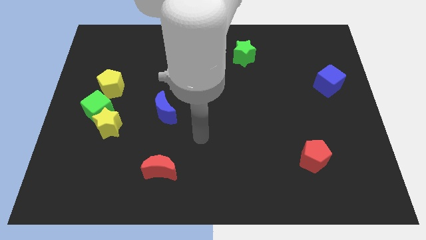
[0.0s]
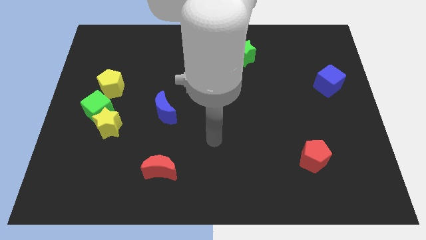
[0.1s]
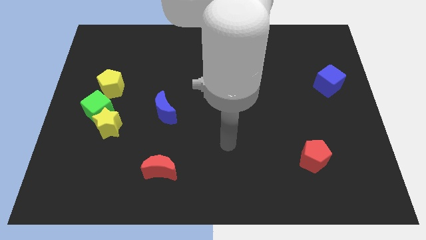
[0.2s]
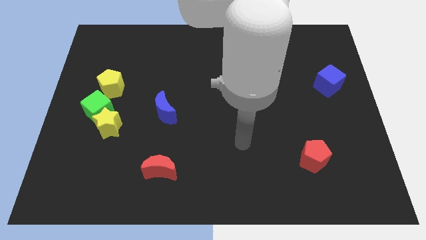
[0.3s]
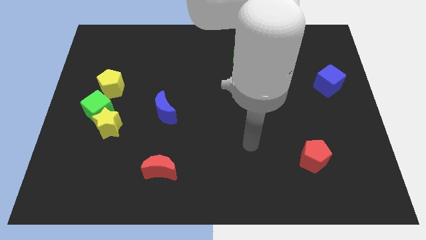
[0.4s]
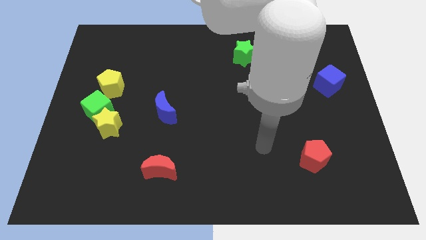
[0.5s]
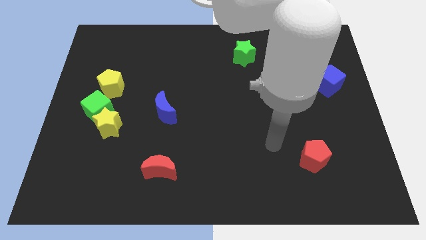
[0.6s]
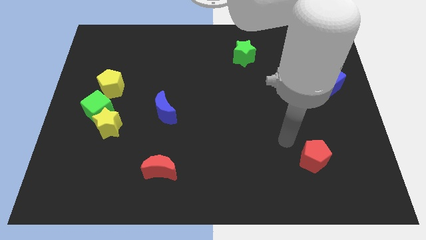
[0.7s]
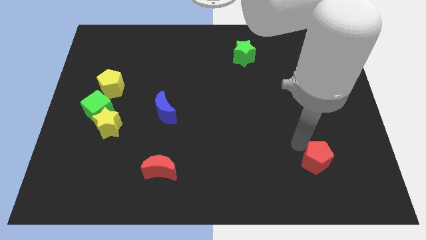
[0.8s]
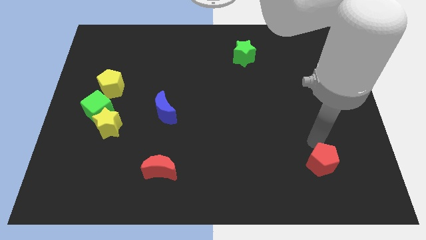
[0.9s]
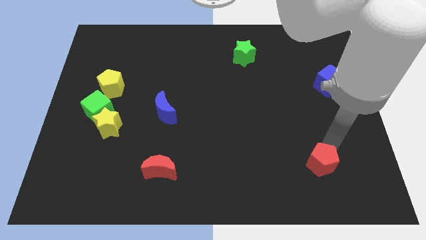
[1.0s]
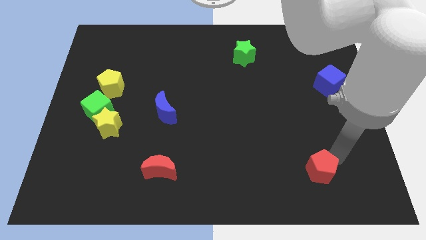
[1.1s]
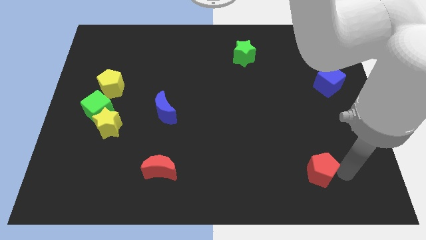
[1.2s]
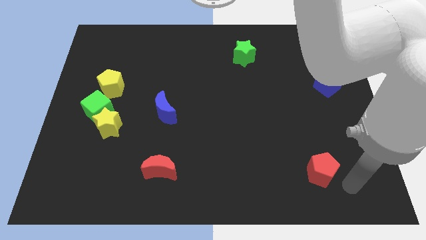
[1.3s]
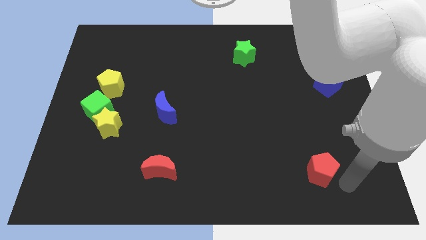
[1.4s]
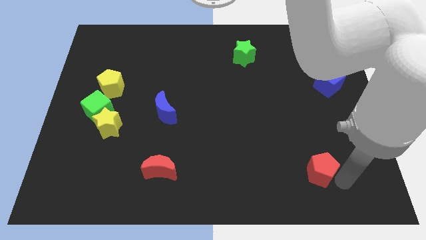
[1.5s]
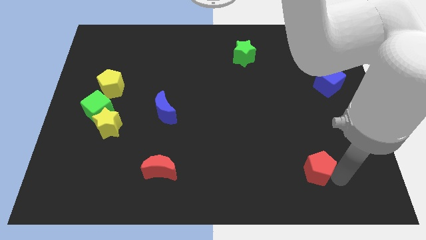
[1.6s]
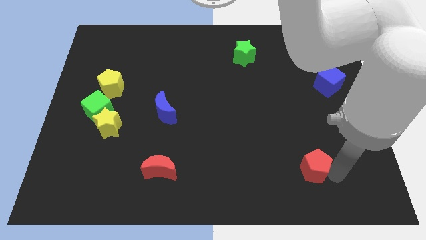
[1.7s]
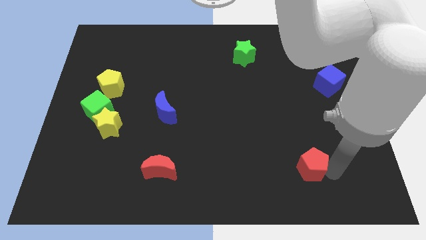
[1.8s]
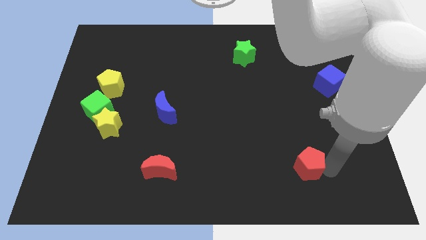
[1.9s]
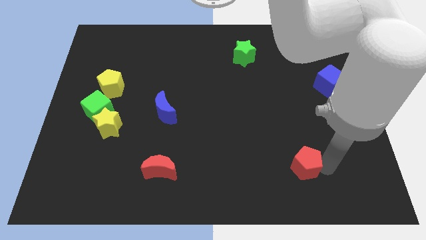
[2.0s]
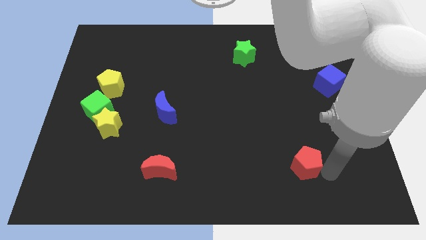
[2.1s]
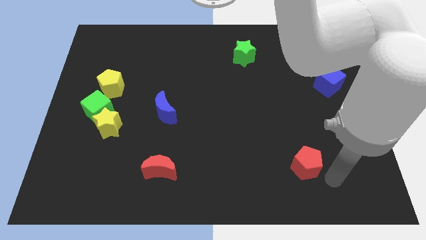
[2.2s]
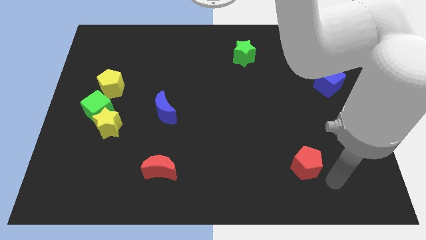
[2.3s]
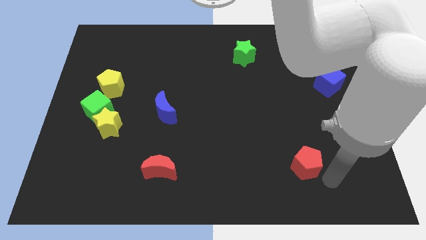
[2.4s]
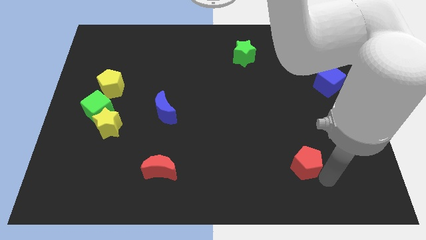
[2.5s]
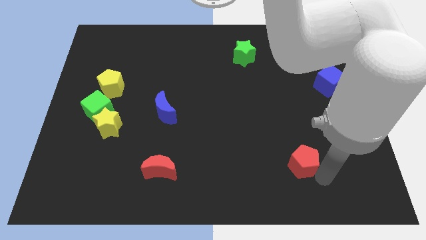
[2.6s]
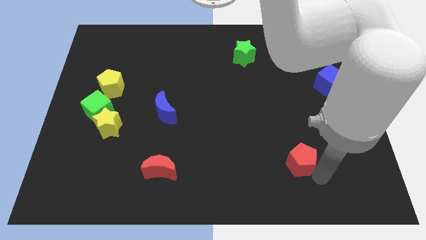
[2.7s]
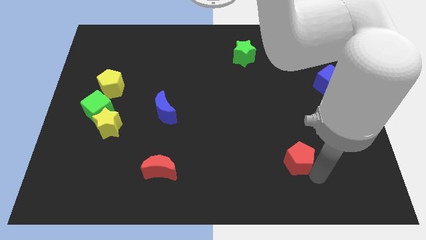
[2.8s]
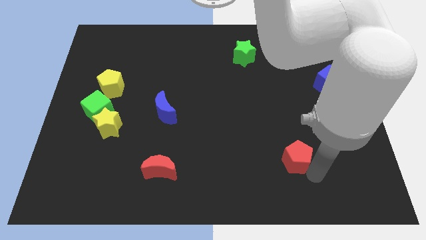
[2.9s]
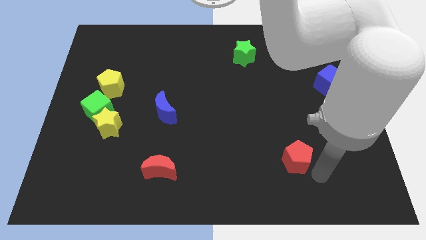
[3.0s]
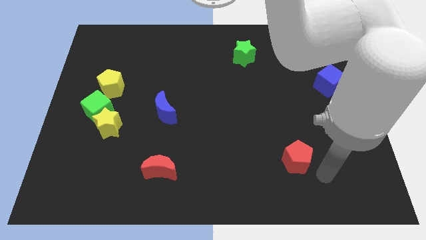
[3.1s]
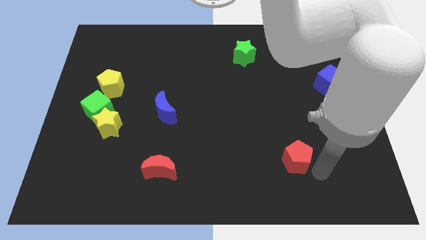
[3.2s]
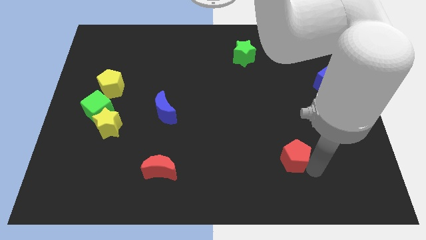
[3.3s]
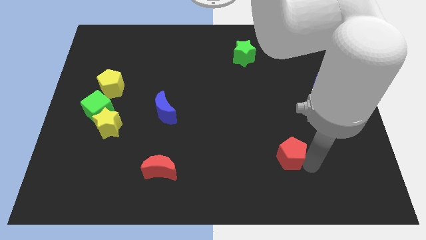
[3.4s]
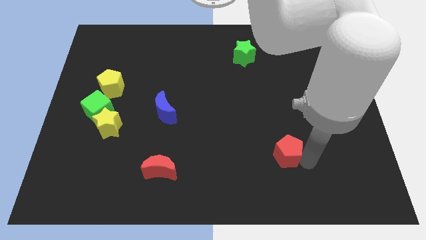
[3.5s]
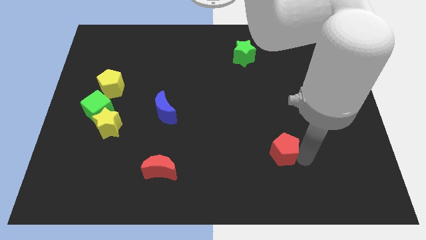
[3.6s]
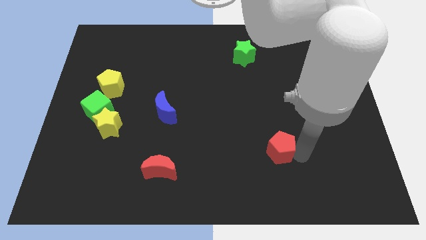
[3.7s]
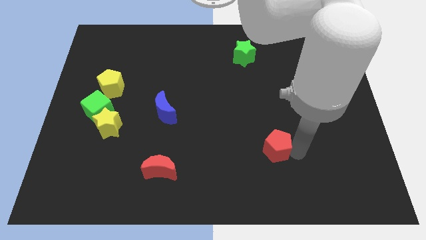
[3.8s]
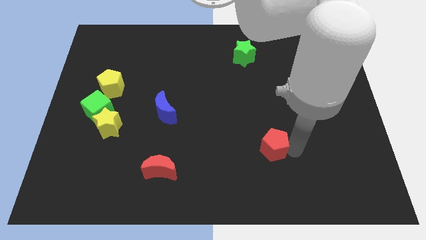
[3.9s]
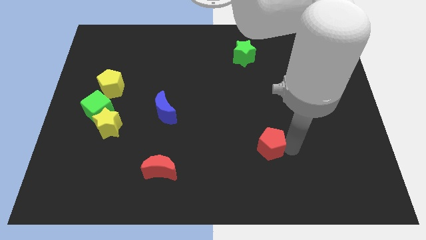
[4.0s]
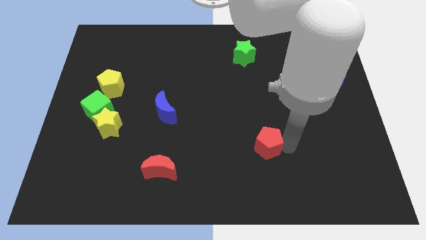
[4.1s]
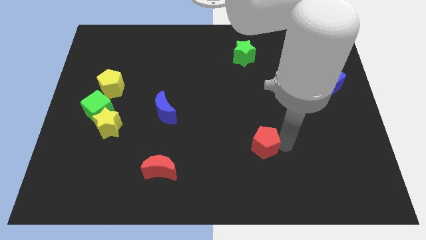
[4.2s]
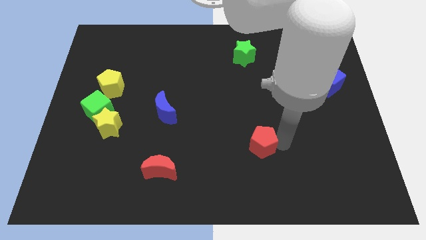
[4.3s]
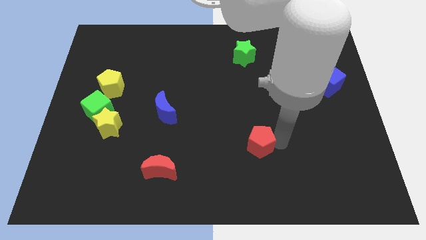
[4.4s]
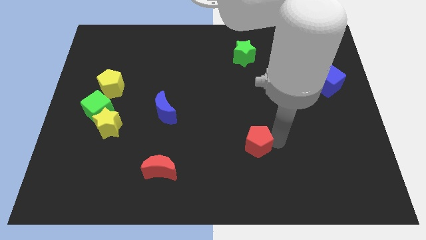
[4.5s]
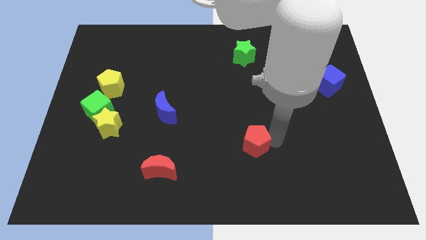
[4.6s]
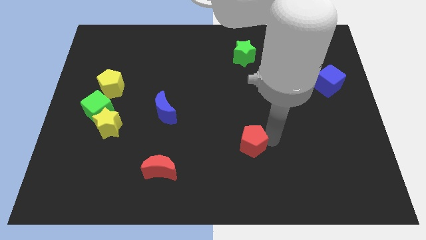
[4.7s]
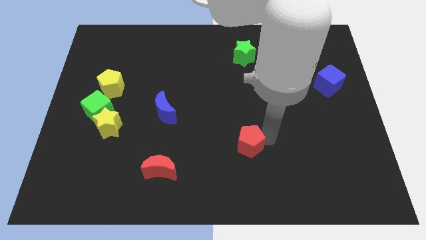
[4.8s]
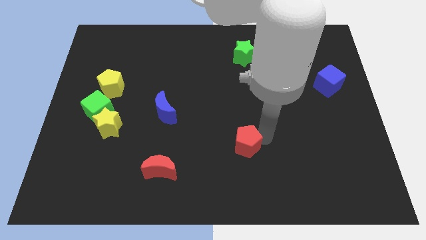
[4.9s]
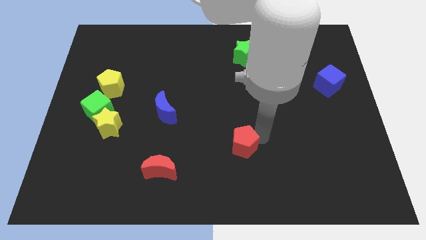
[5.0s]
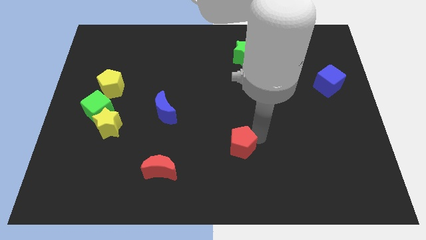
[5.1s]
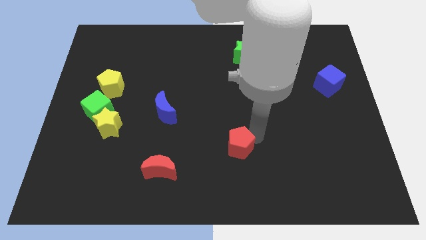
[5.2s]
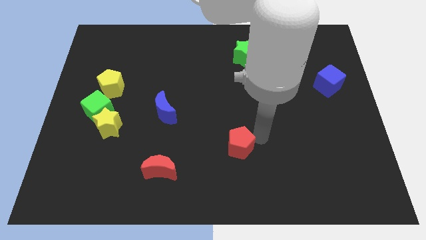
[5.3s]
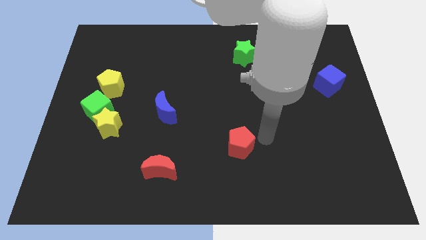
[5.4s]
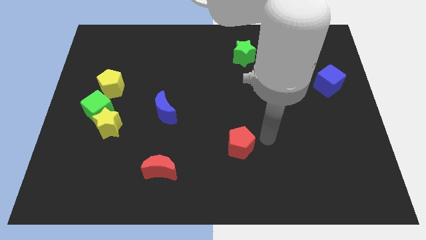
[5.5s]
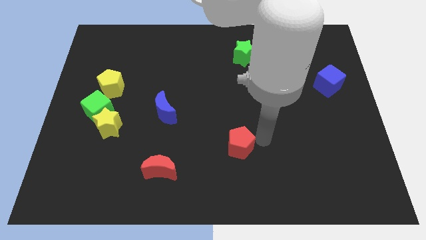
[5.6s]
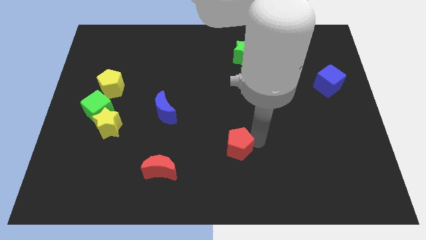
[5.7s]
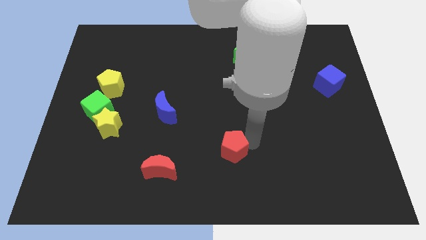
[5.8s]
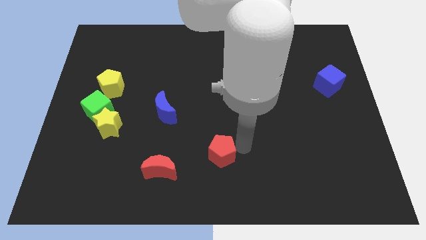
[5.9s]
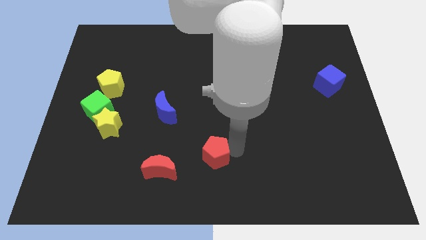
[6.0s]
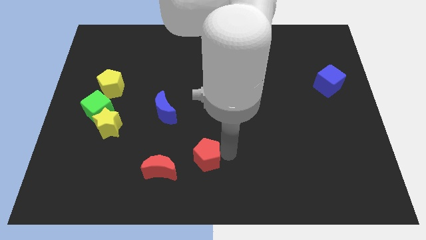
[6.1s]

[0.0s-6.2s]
slide the red pentagon to the top right side of the red moon

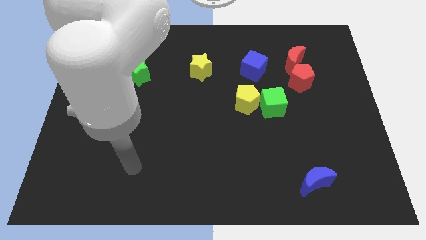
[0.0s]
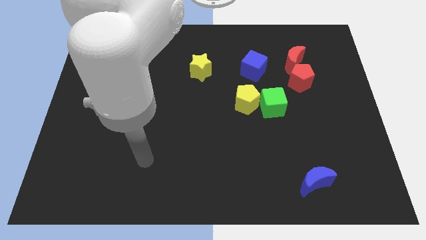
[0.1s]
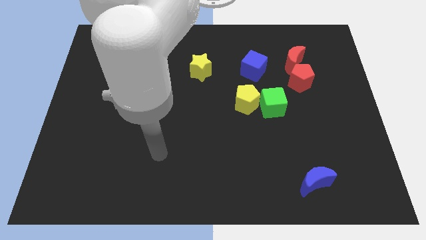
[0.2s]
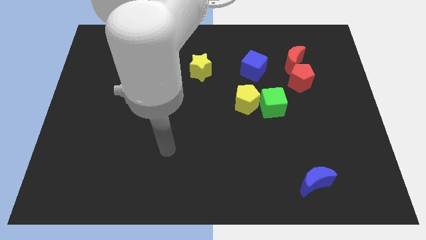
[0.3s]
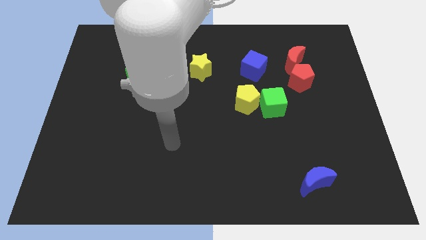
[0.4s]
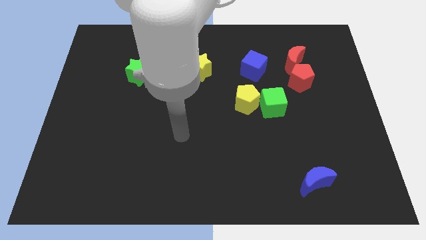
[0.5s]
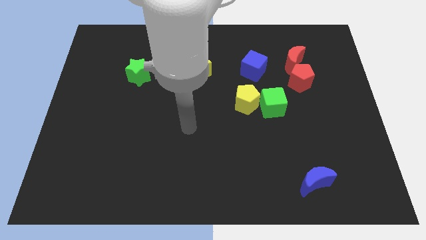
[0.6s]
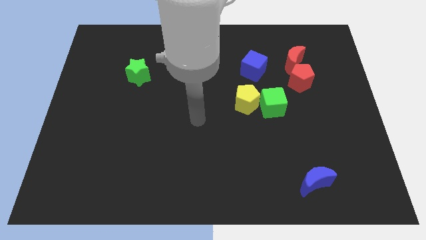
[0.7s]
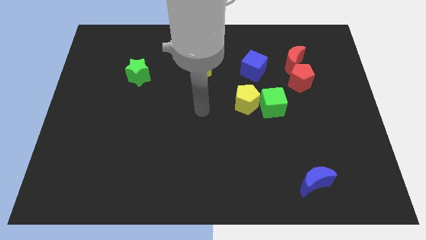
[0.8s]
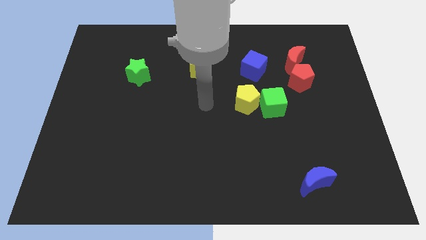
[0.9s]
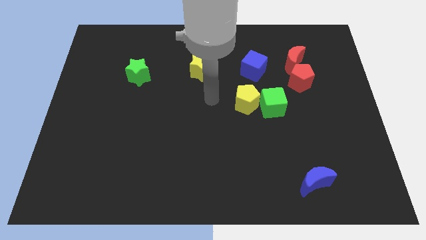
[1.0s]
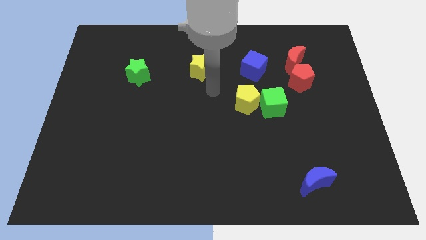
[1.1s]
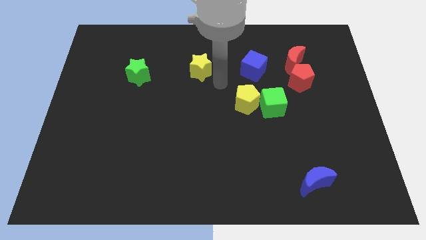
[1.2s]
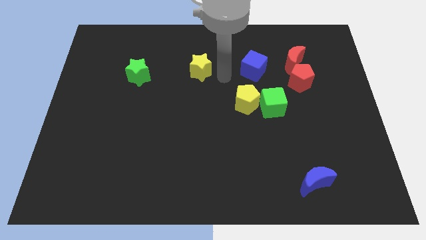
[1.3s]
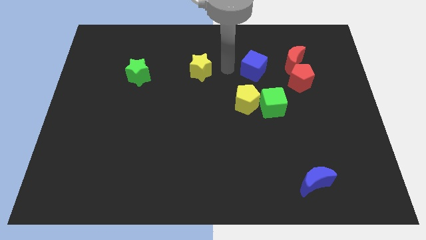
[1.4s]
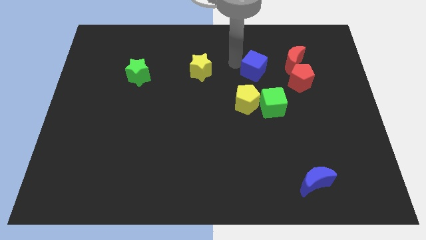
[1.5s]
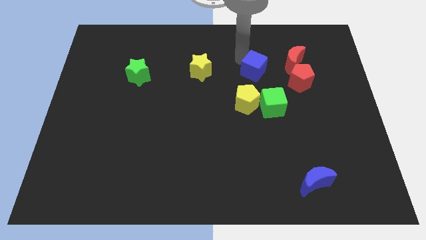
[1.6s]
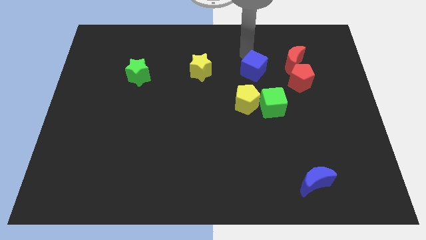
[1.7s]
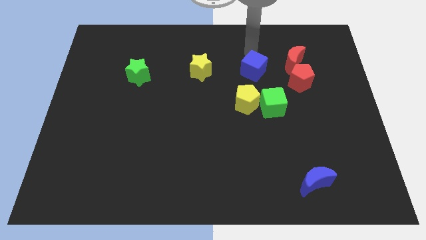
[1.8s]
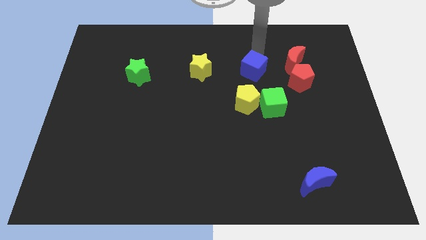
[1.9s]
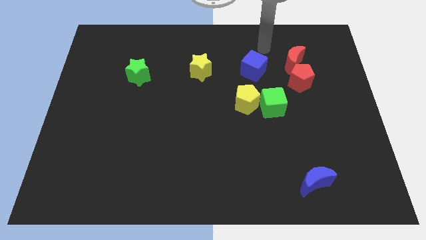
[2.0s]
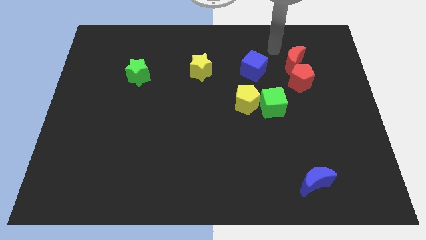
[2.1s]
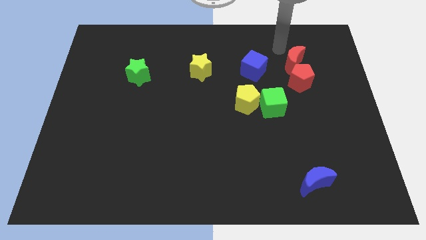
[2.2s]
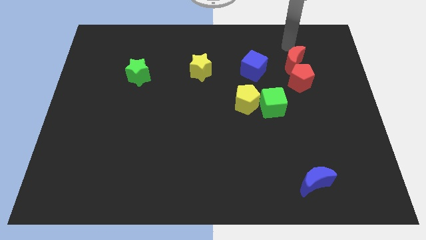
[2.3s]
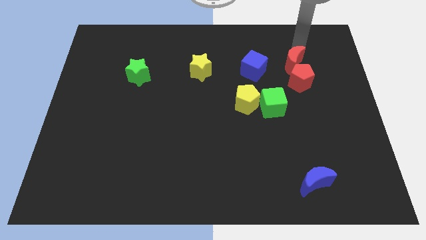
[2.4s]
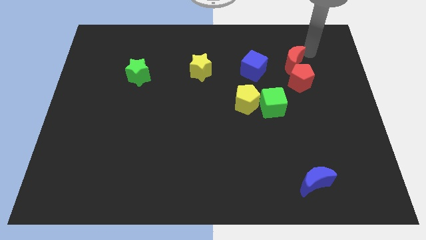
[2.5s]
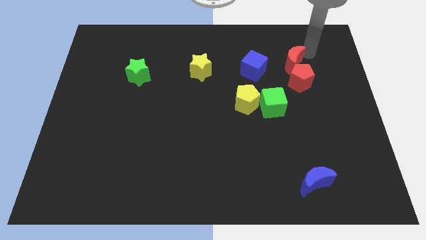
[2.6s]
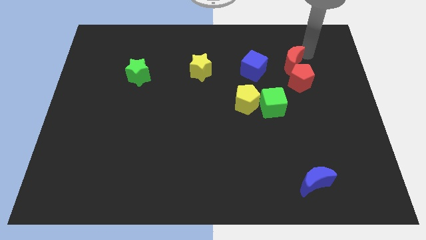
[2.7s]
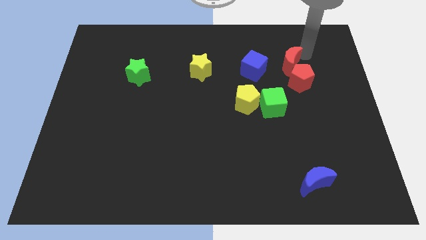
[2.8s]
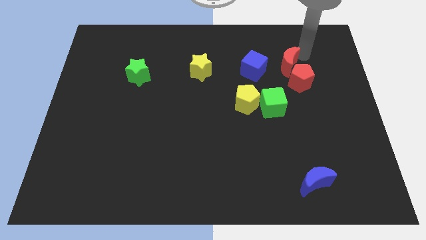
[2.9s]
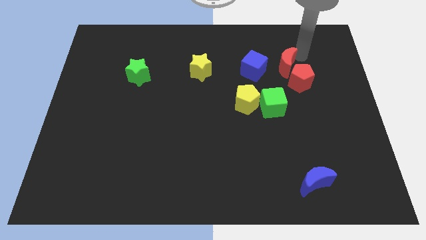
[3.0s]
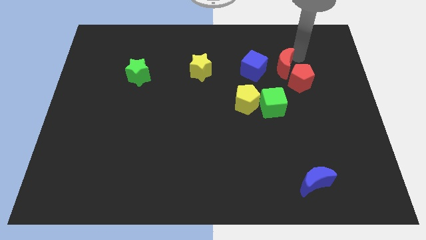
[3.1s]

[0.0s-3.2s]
push the red moon to the top side of the green cube
